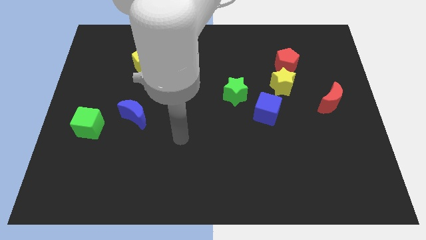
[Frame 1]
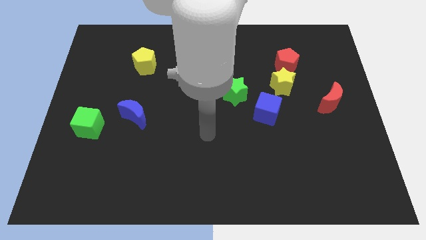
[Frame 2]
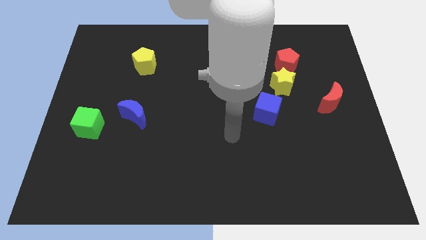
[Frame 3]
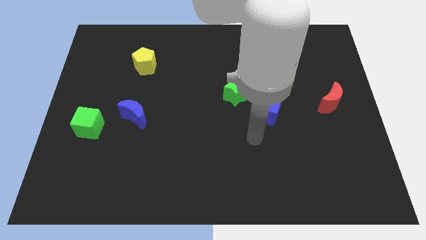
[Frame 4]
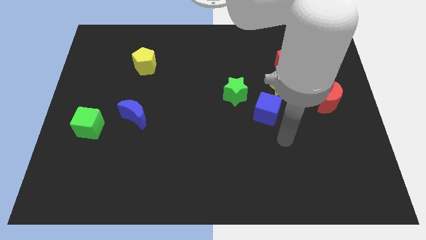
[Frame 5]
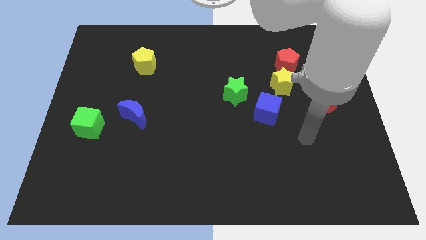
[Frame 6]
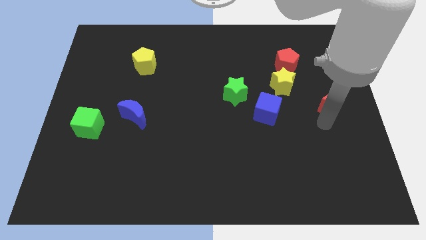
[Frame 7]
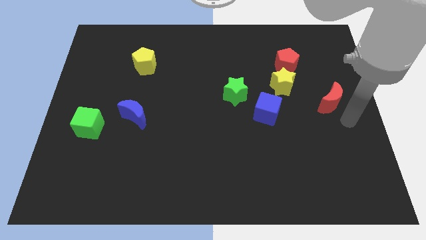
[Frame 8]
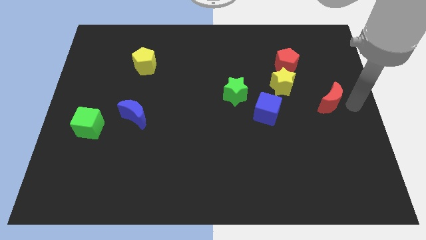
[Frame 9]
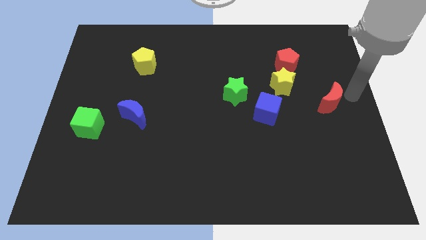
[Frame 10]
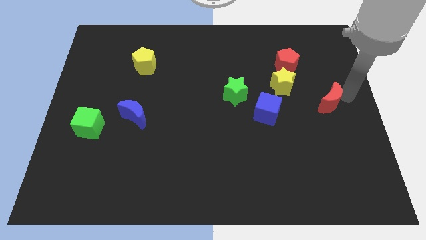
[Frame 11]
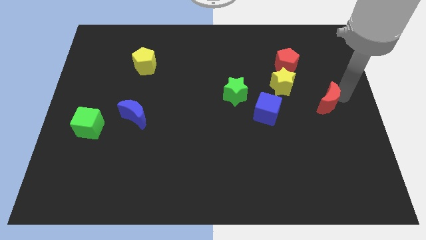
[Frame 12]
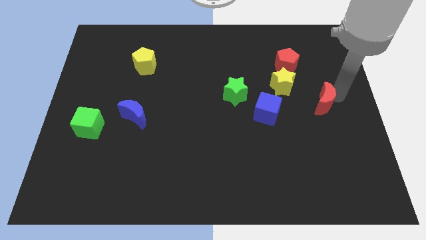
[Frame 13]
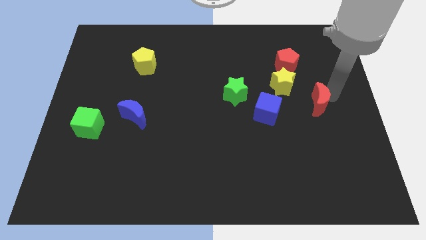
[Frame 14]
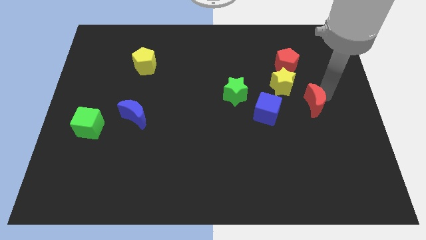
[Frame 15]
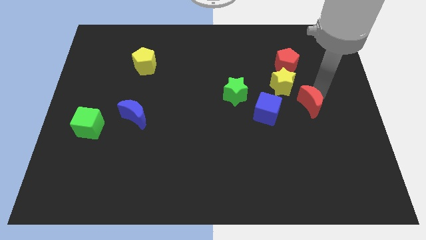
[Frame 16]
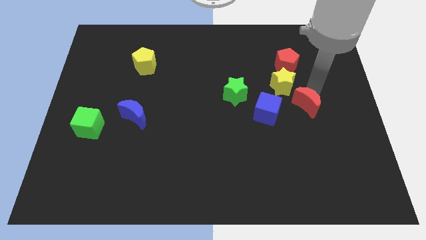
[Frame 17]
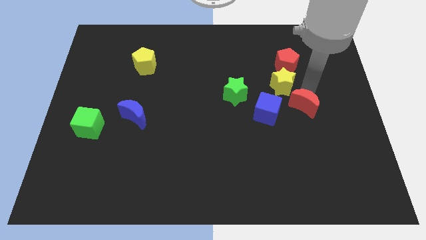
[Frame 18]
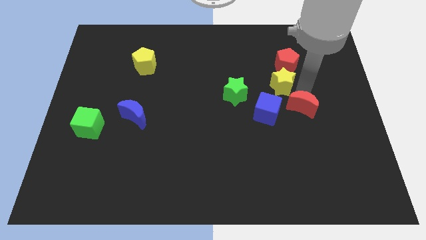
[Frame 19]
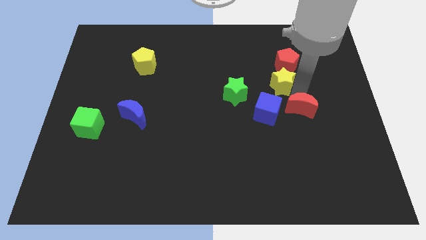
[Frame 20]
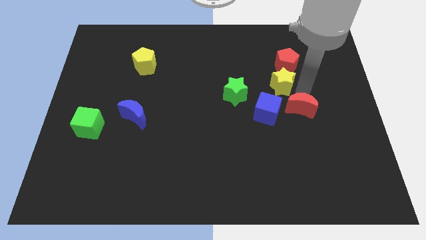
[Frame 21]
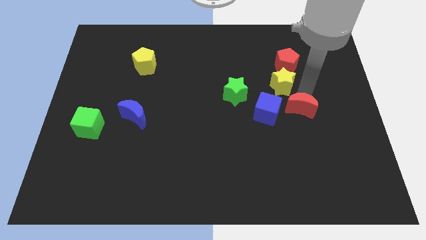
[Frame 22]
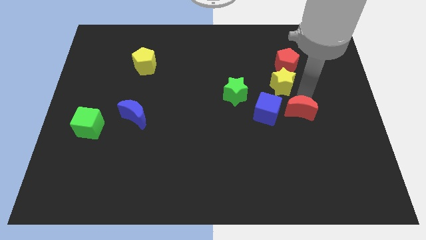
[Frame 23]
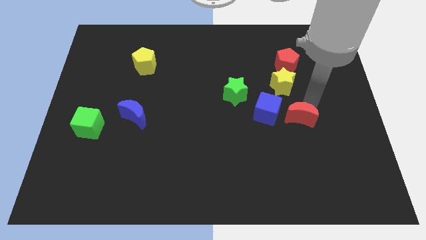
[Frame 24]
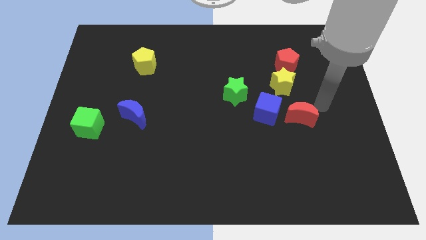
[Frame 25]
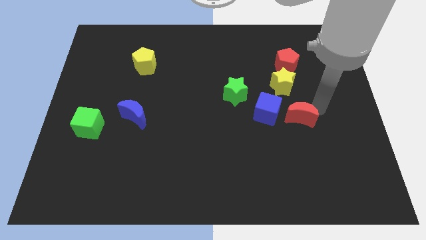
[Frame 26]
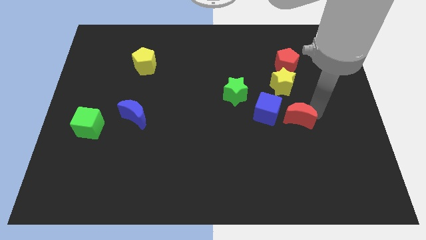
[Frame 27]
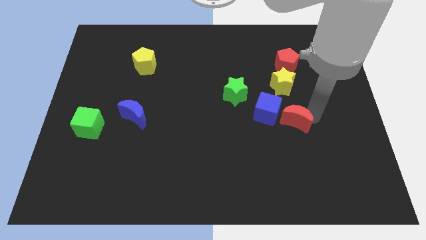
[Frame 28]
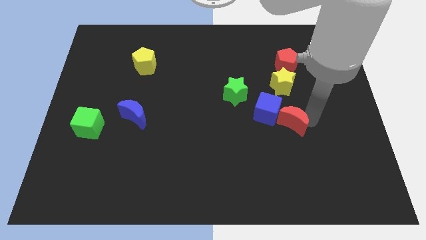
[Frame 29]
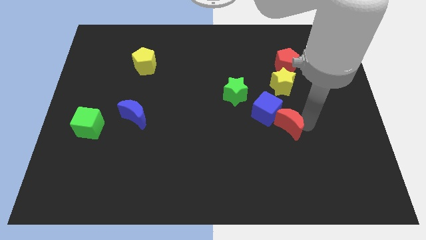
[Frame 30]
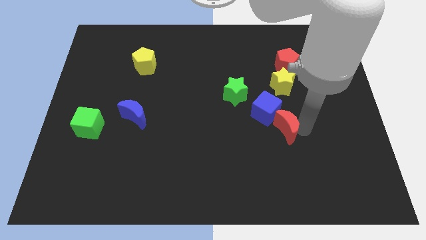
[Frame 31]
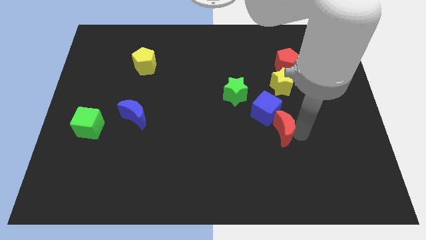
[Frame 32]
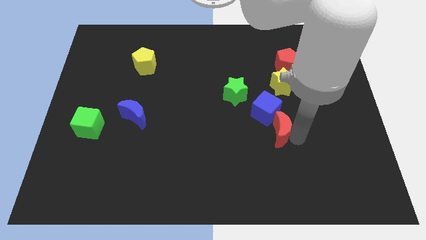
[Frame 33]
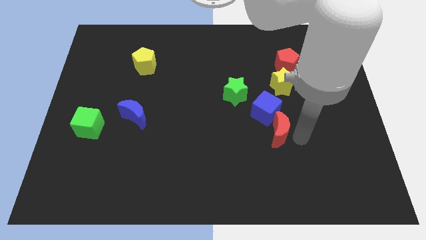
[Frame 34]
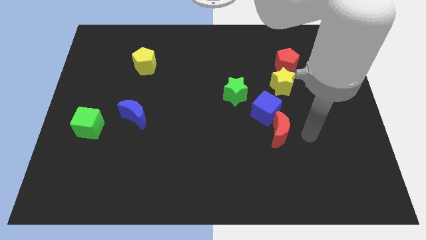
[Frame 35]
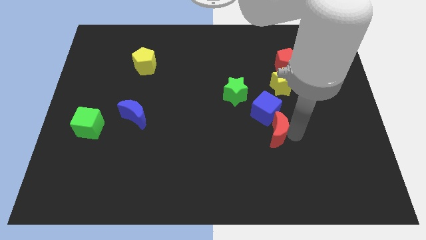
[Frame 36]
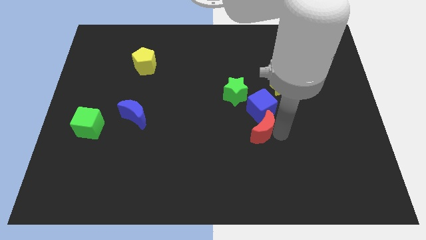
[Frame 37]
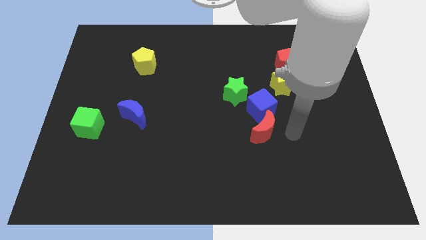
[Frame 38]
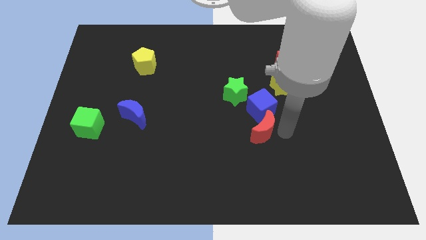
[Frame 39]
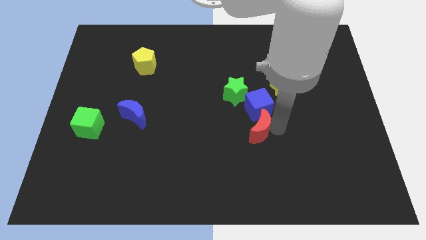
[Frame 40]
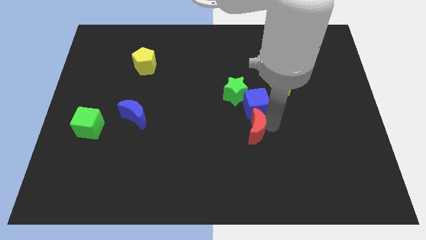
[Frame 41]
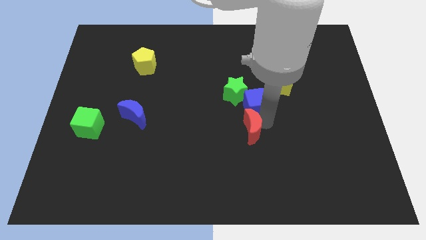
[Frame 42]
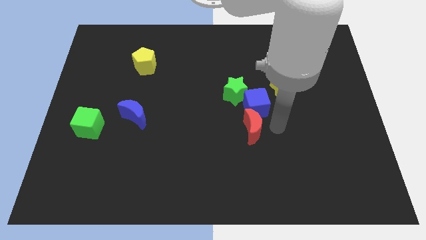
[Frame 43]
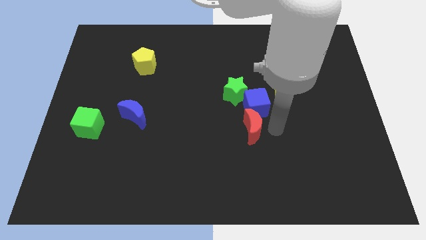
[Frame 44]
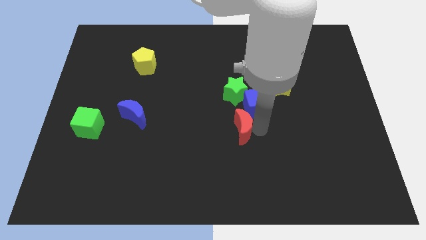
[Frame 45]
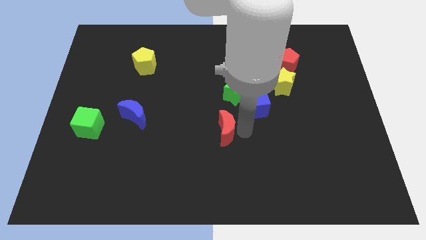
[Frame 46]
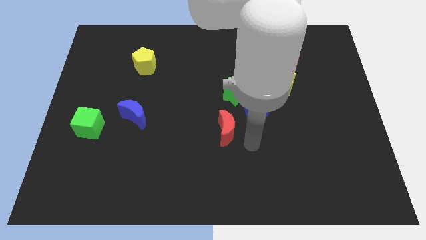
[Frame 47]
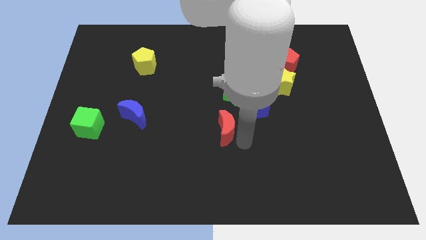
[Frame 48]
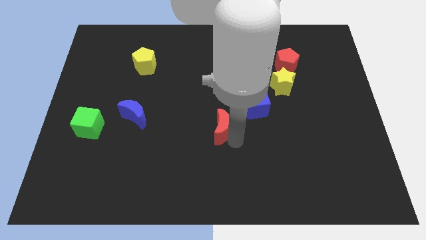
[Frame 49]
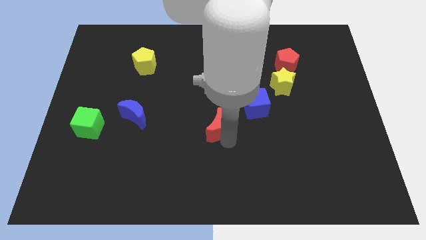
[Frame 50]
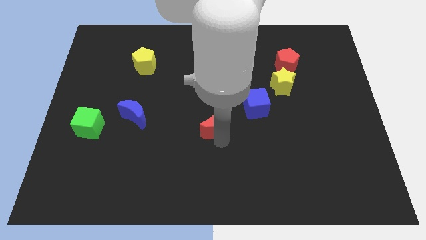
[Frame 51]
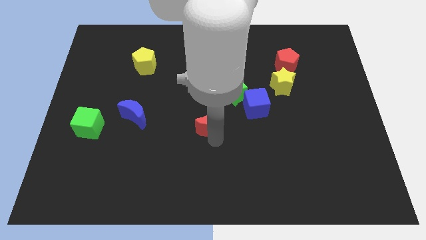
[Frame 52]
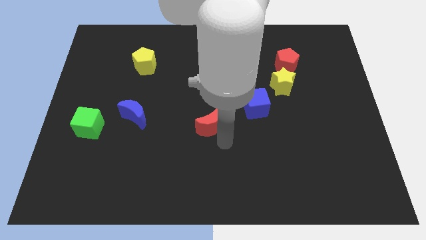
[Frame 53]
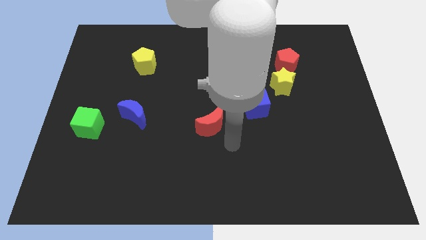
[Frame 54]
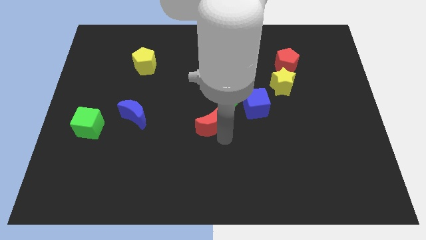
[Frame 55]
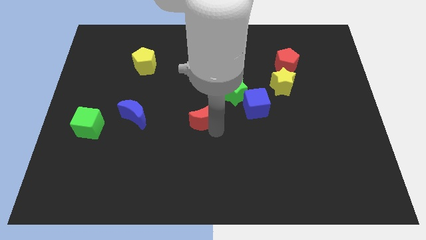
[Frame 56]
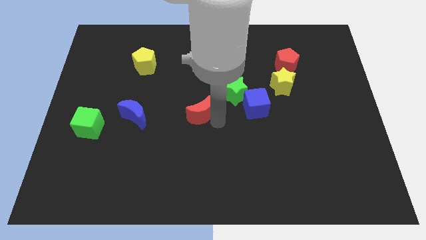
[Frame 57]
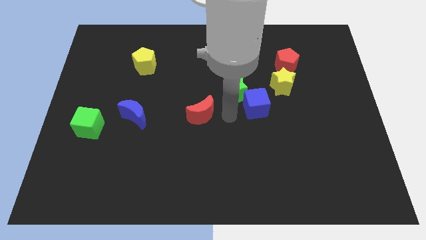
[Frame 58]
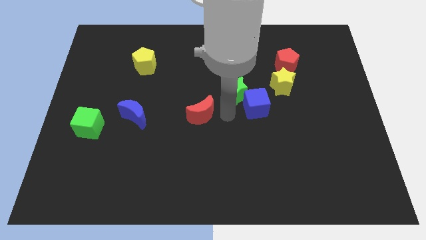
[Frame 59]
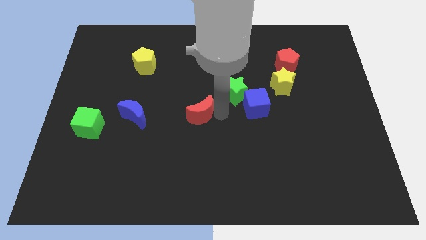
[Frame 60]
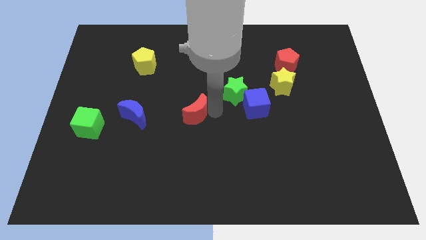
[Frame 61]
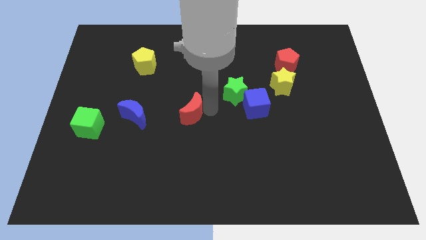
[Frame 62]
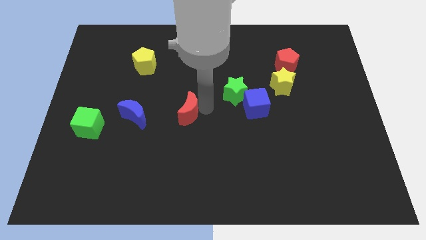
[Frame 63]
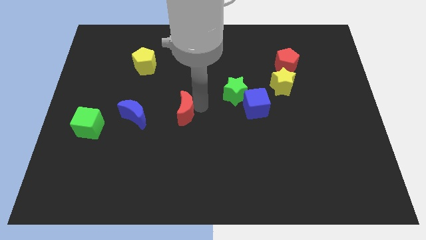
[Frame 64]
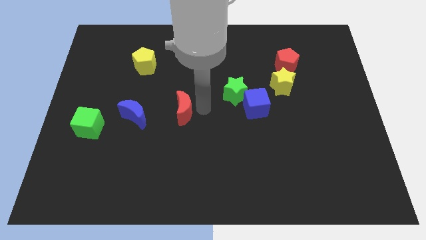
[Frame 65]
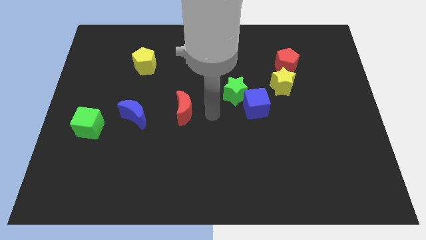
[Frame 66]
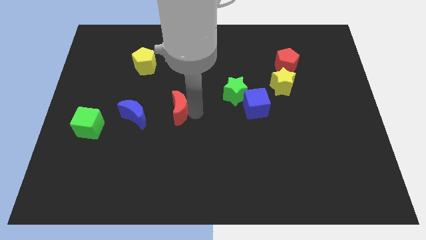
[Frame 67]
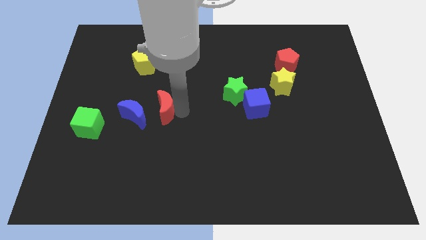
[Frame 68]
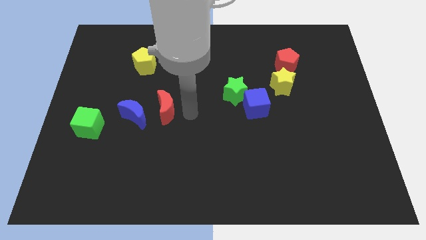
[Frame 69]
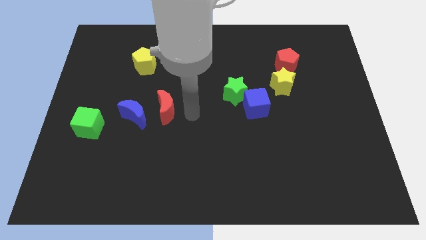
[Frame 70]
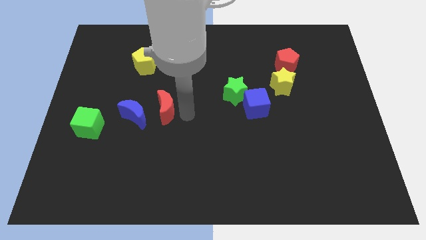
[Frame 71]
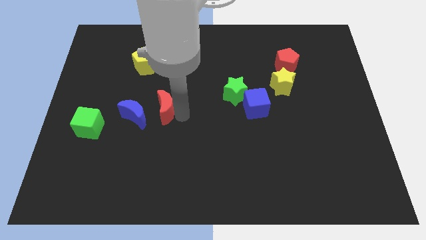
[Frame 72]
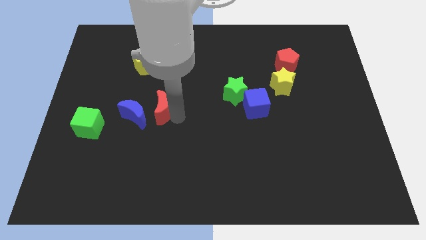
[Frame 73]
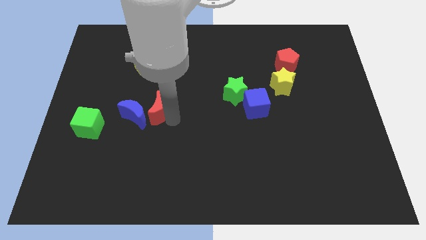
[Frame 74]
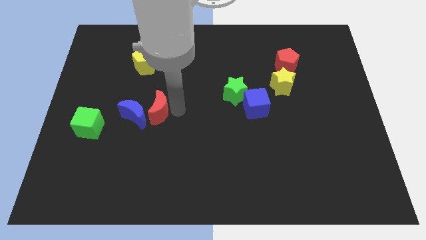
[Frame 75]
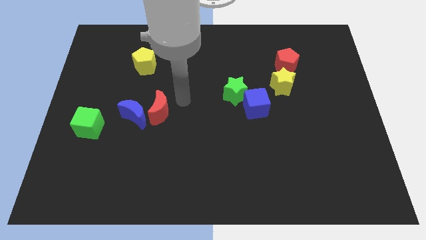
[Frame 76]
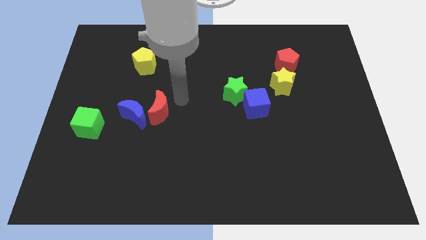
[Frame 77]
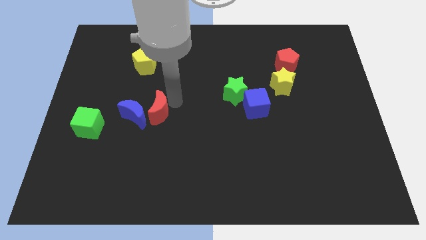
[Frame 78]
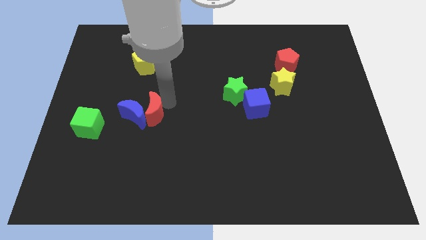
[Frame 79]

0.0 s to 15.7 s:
put the red moon to the right side of the green cube
